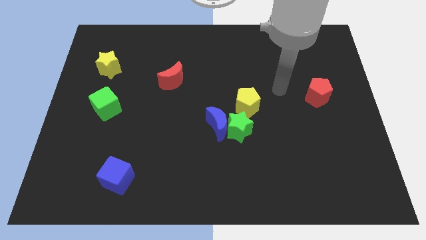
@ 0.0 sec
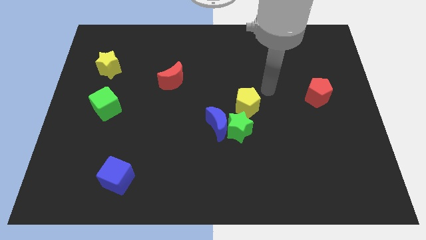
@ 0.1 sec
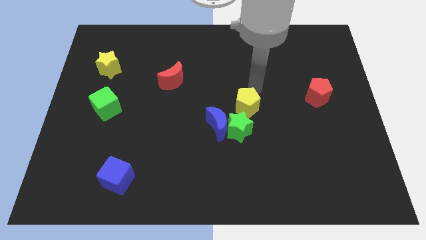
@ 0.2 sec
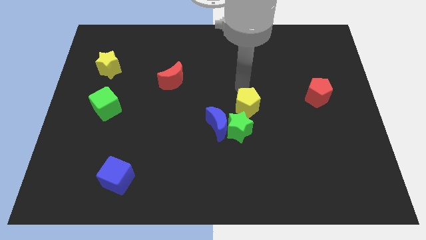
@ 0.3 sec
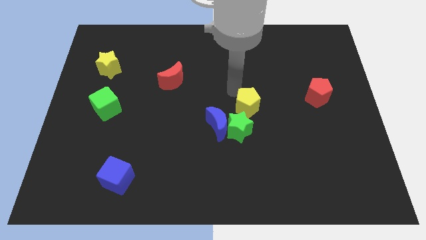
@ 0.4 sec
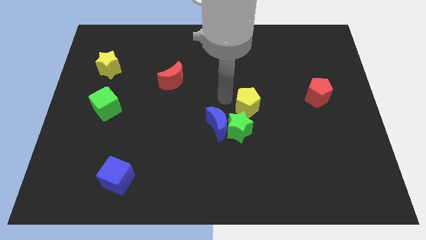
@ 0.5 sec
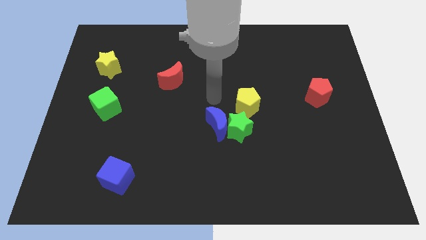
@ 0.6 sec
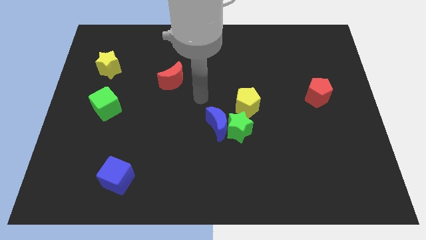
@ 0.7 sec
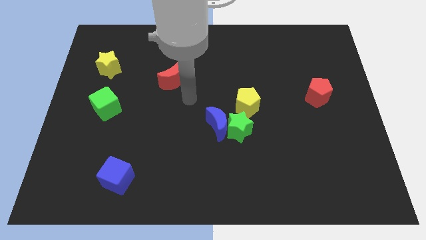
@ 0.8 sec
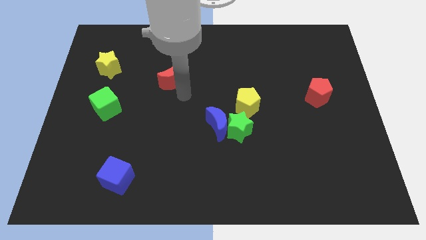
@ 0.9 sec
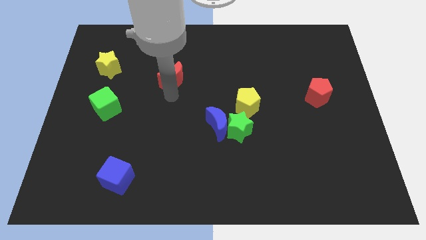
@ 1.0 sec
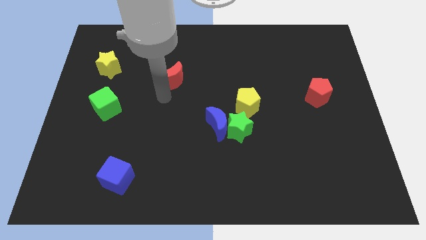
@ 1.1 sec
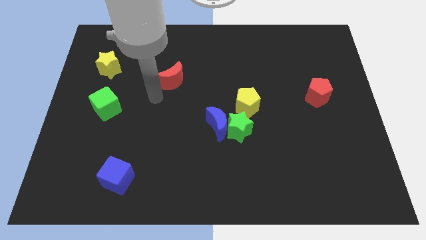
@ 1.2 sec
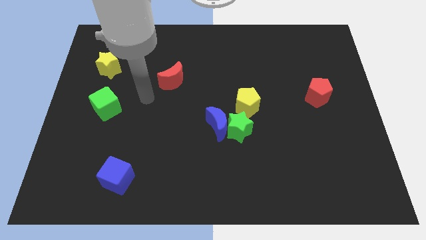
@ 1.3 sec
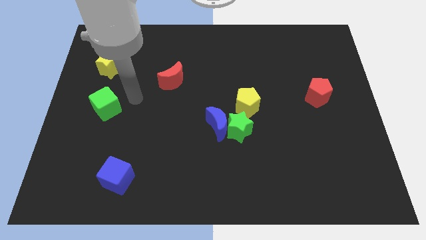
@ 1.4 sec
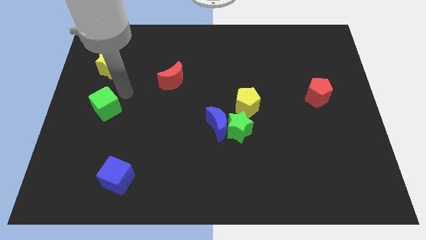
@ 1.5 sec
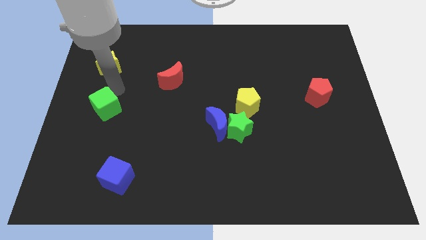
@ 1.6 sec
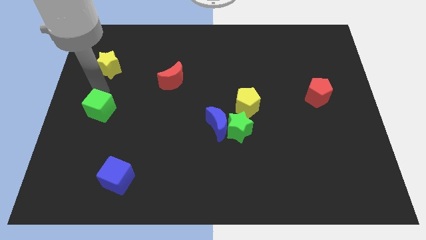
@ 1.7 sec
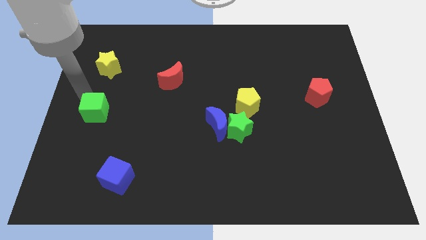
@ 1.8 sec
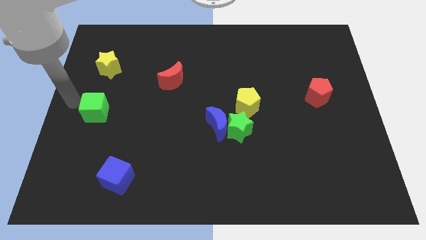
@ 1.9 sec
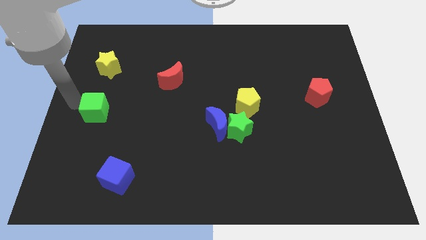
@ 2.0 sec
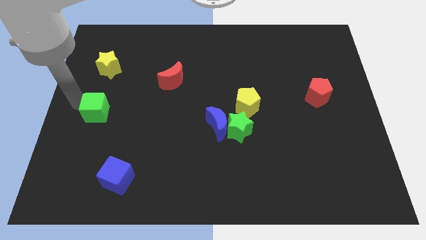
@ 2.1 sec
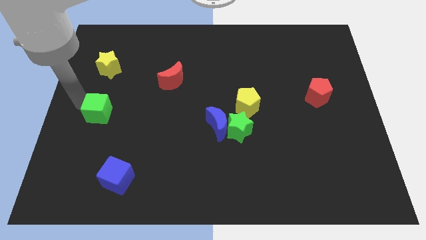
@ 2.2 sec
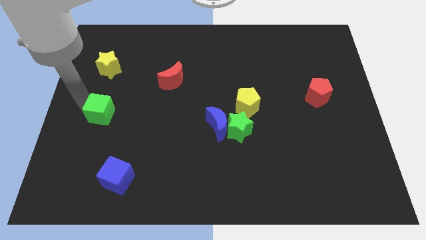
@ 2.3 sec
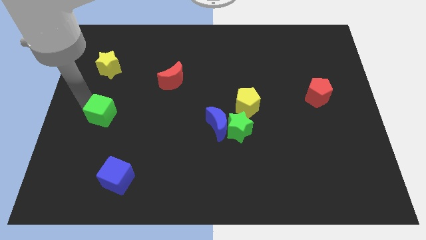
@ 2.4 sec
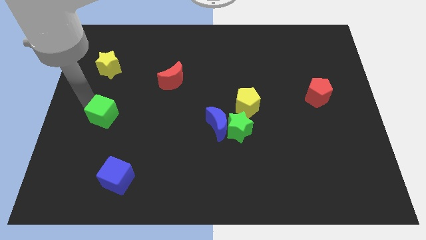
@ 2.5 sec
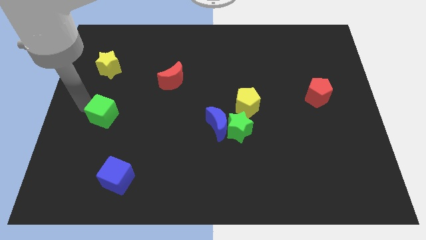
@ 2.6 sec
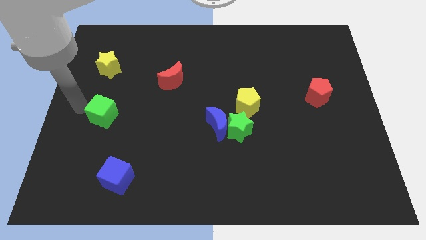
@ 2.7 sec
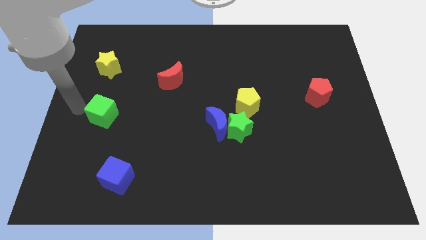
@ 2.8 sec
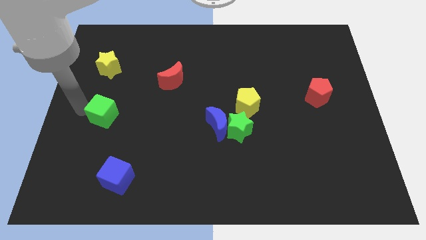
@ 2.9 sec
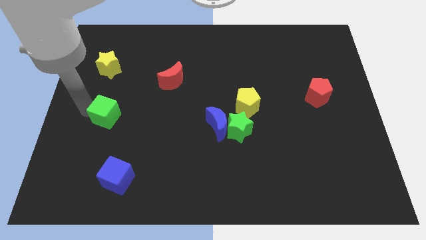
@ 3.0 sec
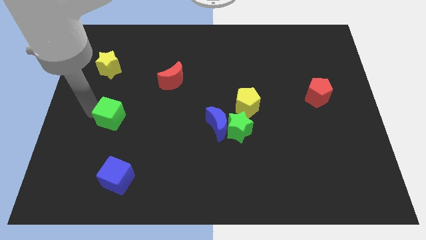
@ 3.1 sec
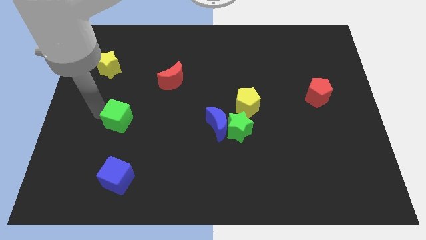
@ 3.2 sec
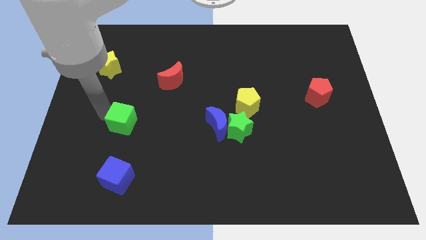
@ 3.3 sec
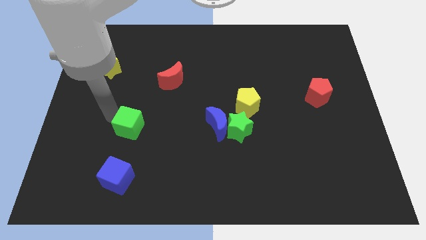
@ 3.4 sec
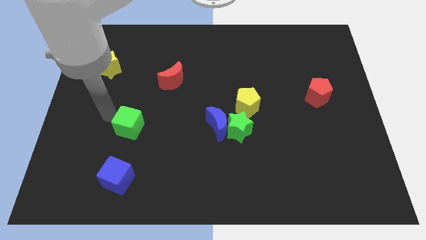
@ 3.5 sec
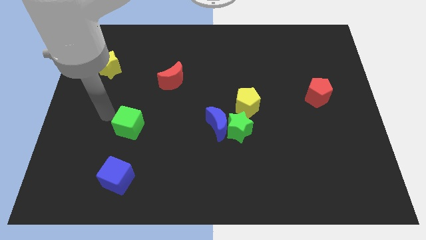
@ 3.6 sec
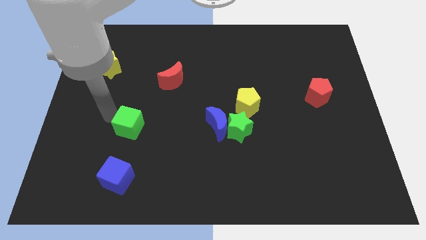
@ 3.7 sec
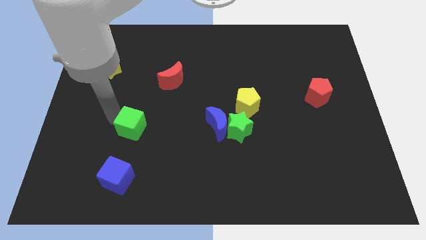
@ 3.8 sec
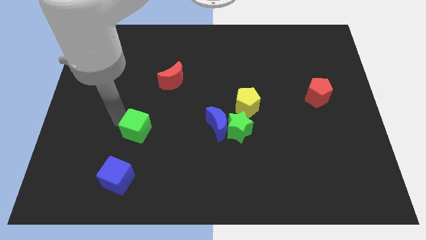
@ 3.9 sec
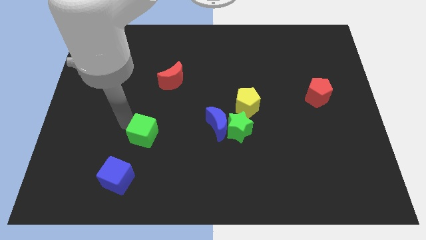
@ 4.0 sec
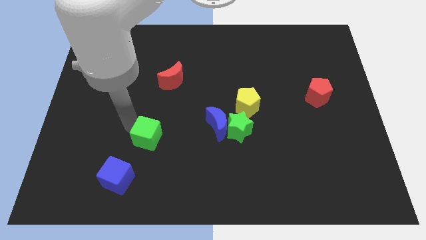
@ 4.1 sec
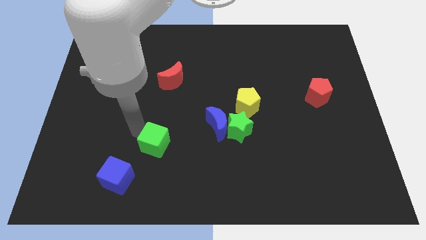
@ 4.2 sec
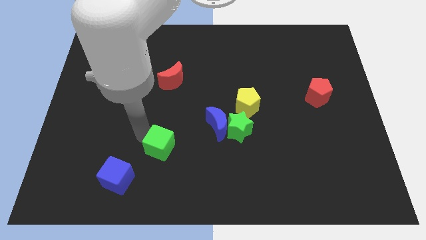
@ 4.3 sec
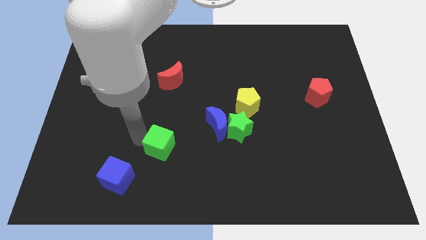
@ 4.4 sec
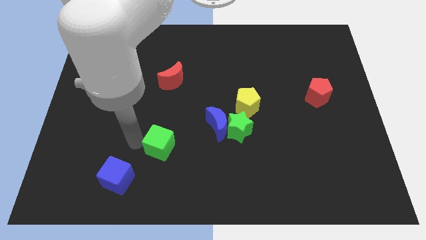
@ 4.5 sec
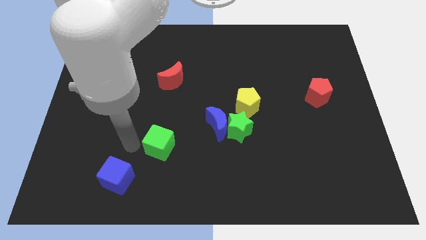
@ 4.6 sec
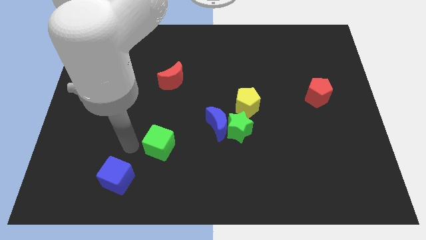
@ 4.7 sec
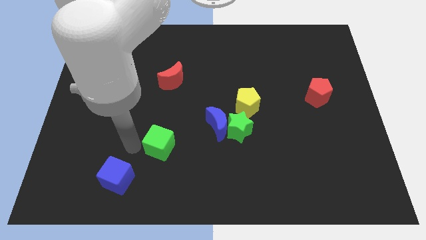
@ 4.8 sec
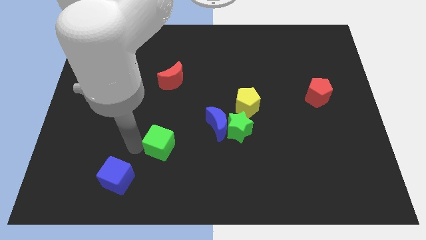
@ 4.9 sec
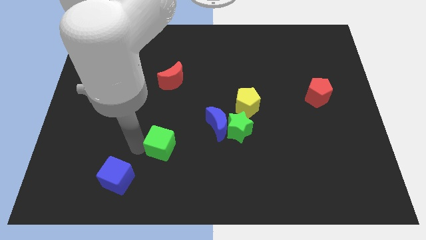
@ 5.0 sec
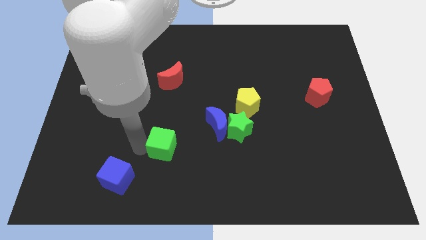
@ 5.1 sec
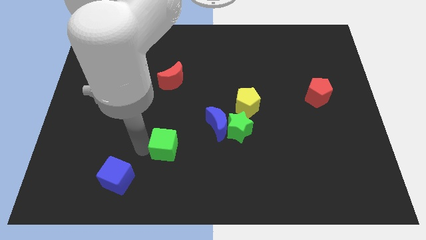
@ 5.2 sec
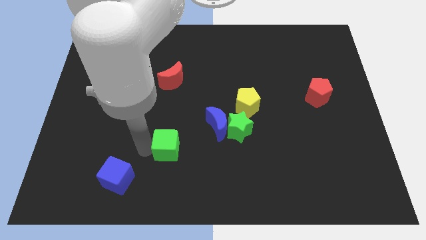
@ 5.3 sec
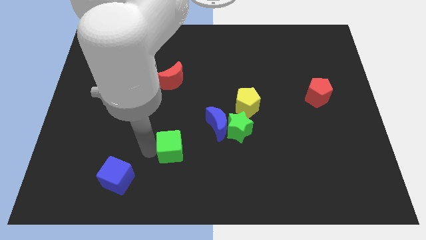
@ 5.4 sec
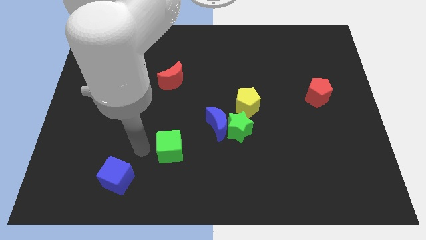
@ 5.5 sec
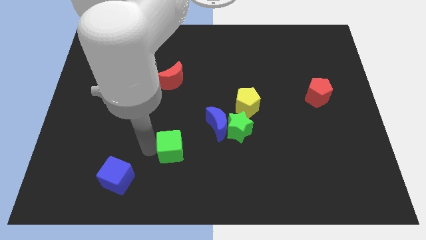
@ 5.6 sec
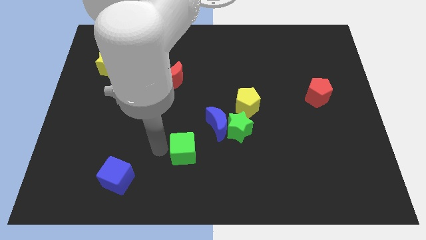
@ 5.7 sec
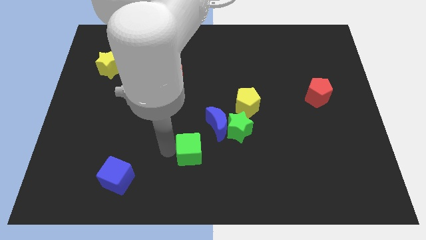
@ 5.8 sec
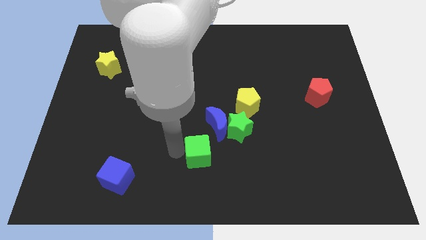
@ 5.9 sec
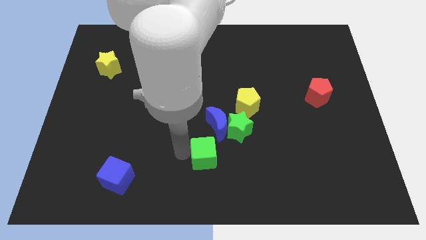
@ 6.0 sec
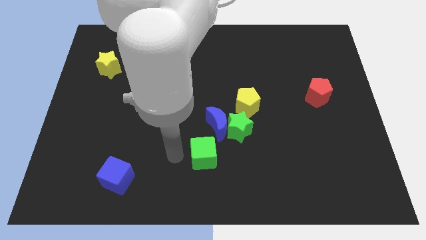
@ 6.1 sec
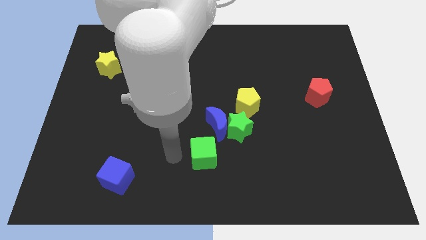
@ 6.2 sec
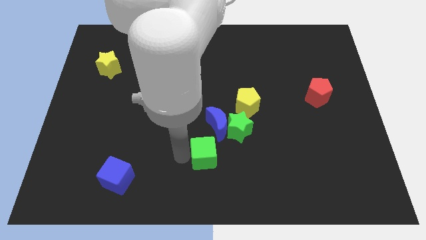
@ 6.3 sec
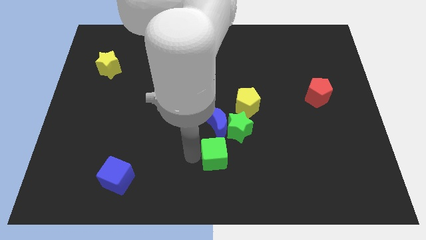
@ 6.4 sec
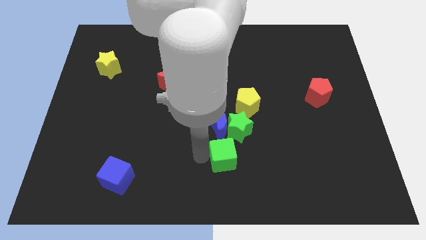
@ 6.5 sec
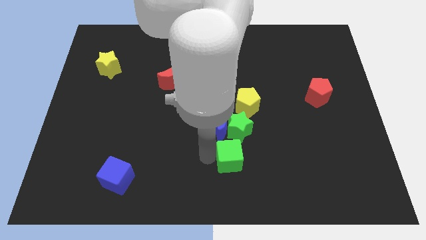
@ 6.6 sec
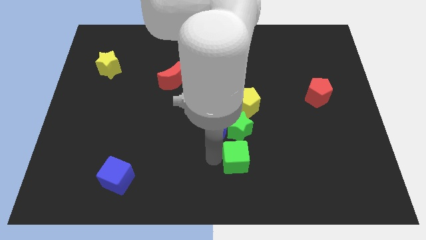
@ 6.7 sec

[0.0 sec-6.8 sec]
put the green cube to the bottom of the yellow pentagon
